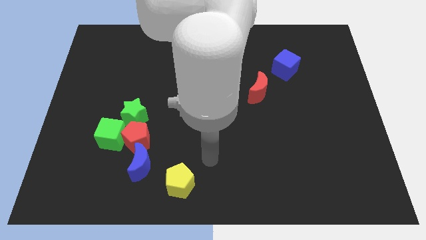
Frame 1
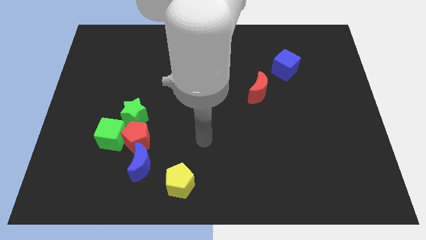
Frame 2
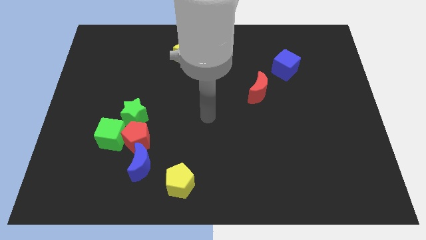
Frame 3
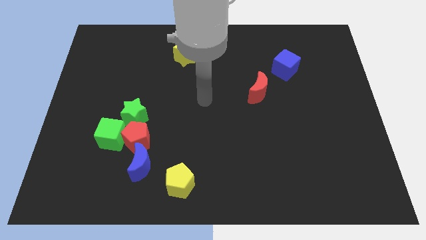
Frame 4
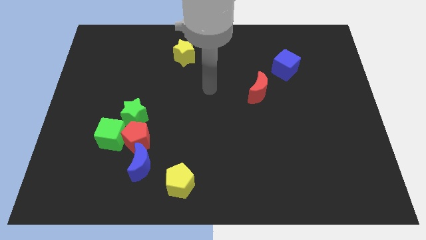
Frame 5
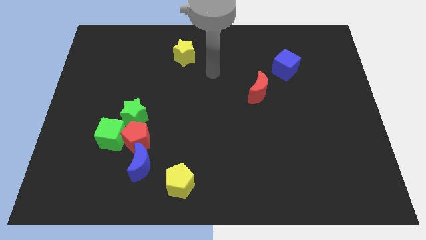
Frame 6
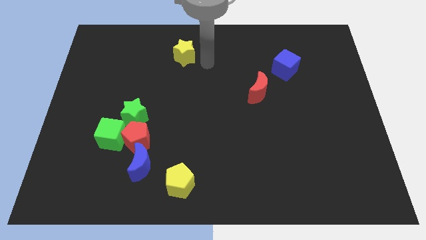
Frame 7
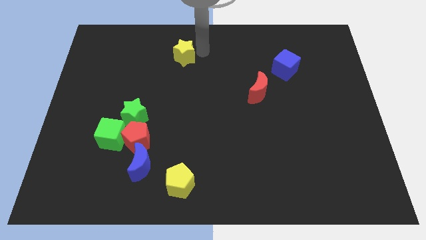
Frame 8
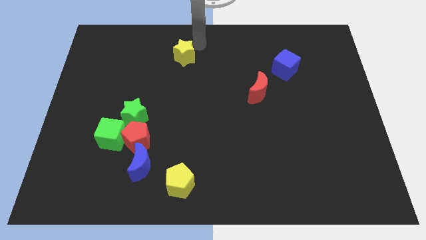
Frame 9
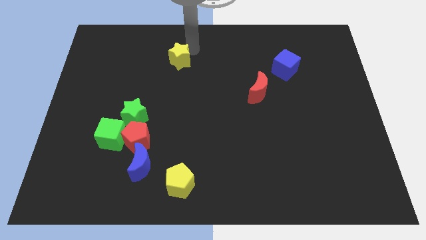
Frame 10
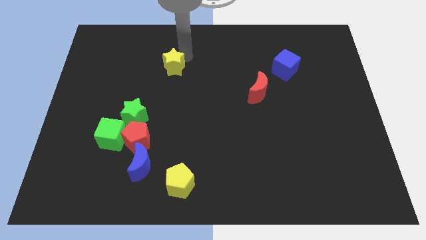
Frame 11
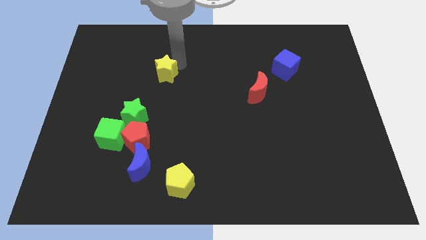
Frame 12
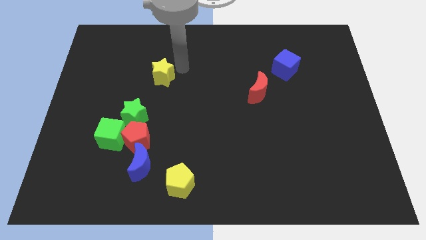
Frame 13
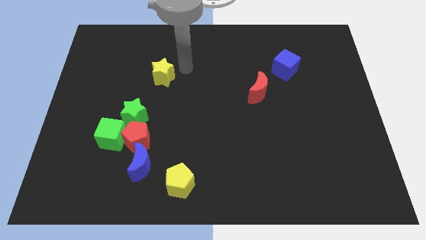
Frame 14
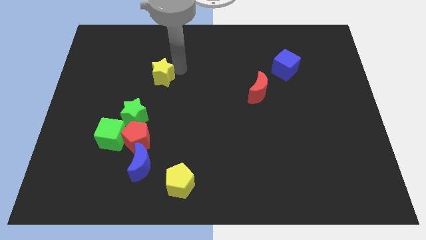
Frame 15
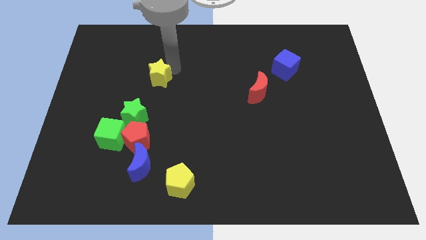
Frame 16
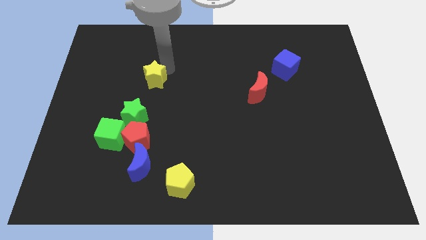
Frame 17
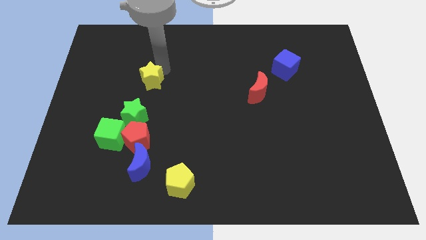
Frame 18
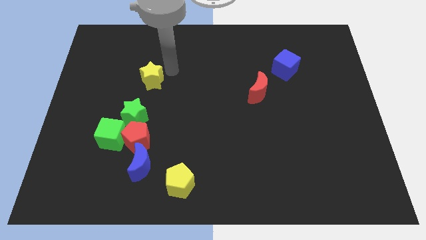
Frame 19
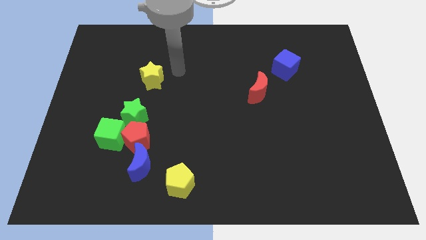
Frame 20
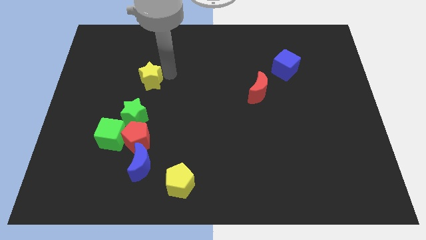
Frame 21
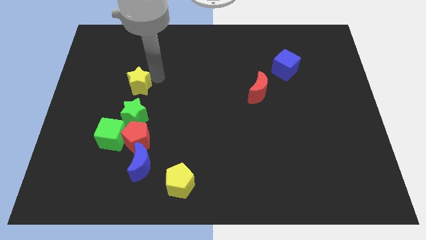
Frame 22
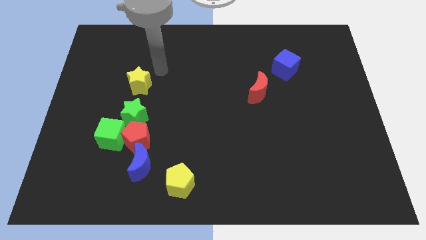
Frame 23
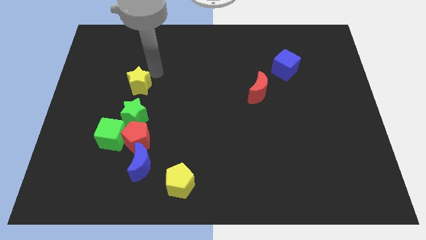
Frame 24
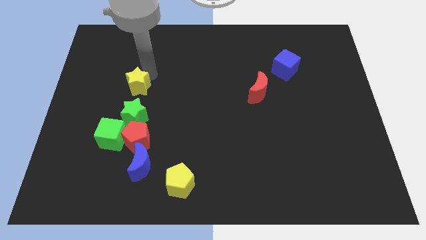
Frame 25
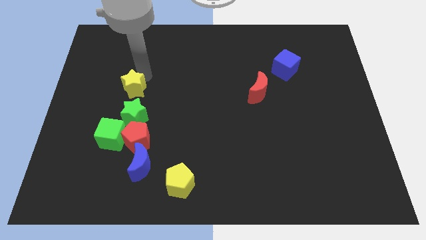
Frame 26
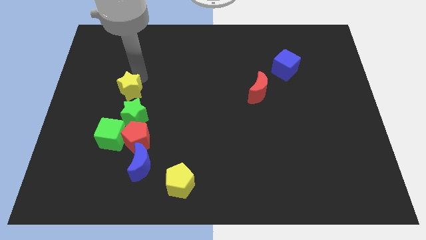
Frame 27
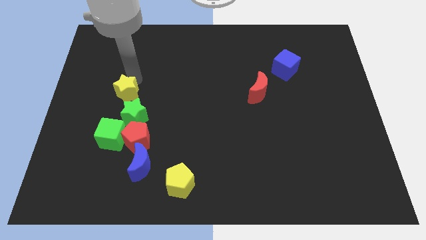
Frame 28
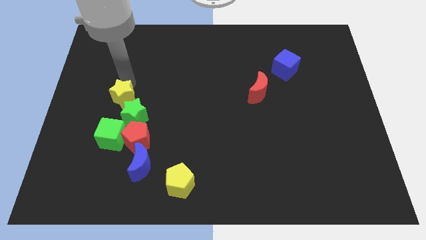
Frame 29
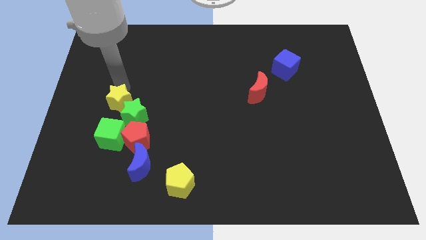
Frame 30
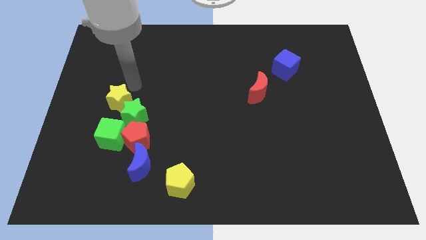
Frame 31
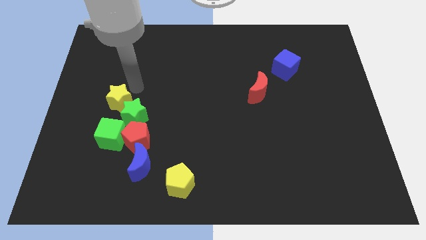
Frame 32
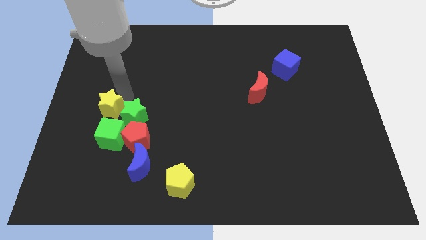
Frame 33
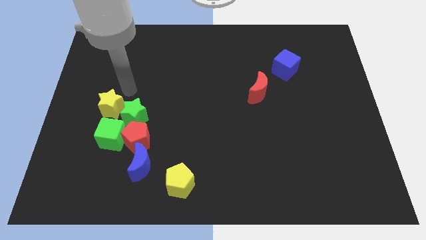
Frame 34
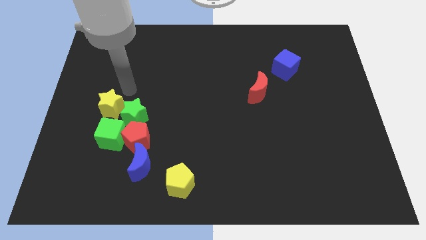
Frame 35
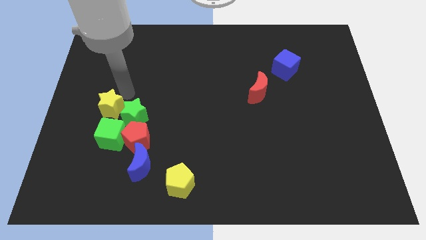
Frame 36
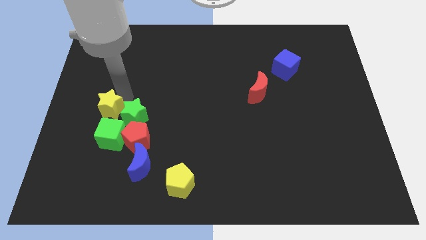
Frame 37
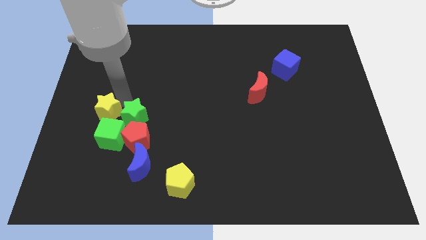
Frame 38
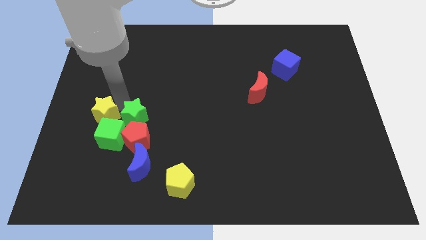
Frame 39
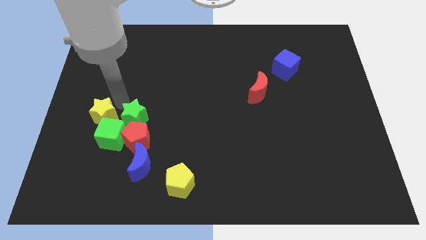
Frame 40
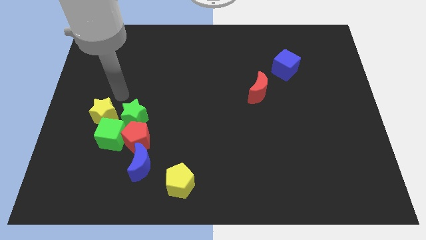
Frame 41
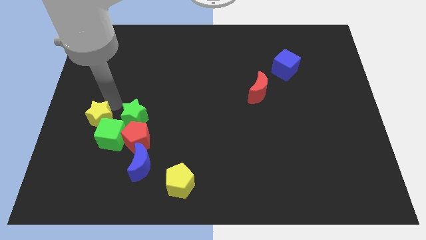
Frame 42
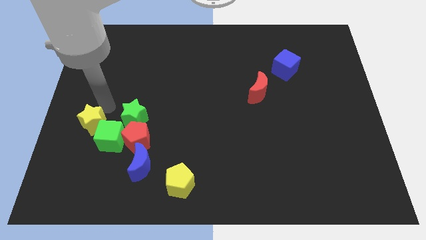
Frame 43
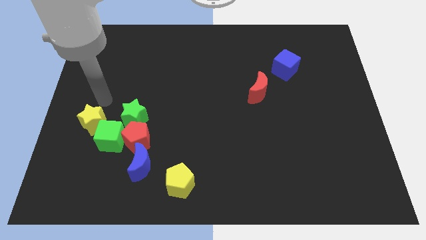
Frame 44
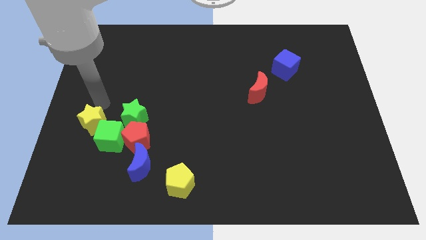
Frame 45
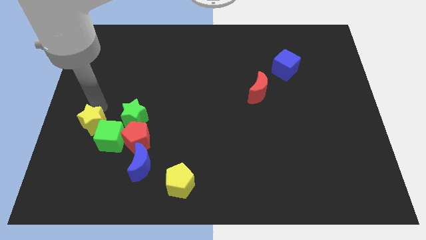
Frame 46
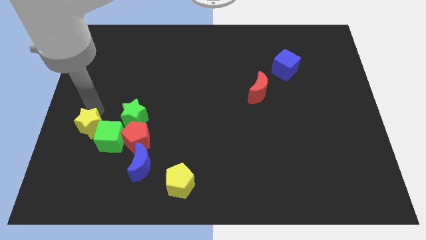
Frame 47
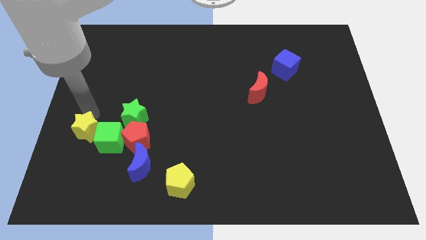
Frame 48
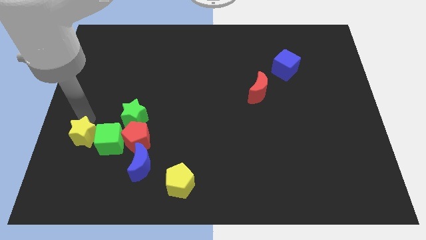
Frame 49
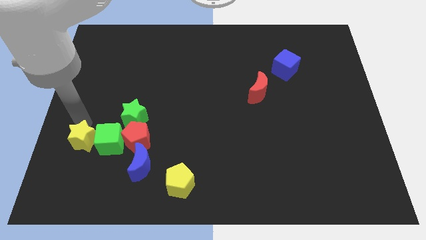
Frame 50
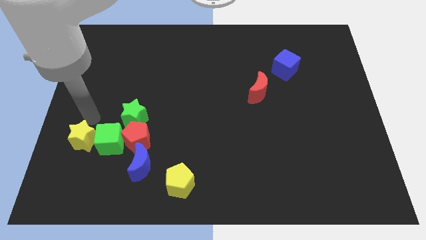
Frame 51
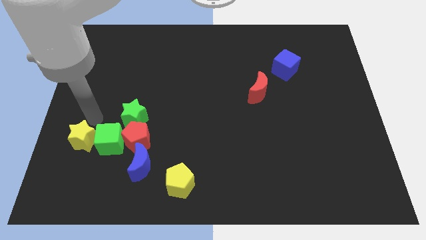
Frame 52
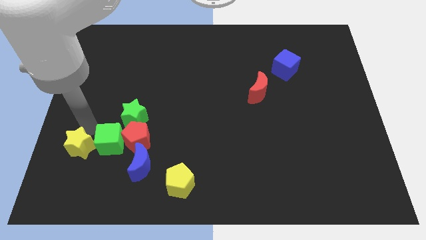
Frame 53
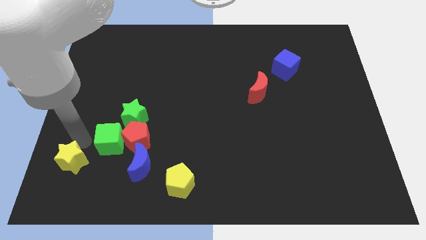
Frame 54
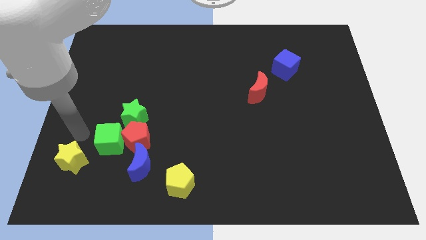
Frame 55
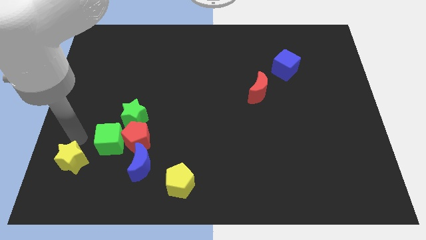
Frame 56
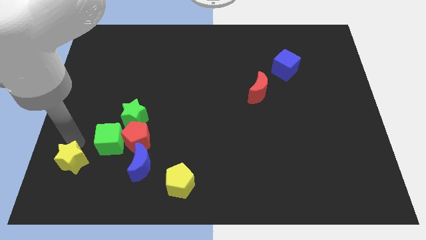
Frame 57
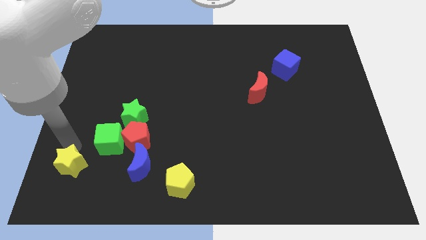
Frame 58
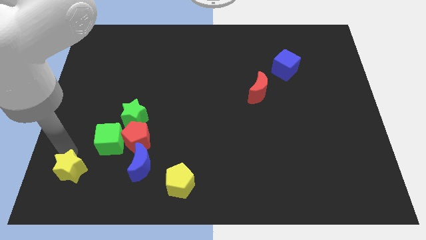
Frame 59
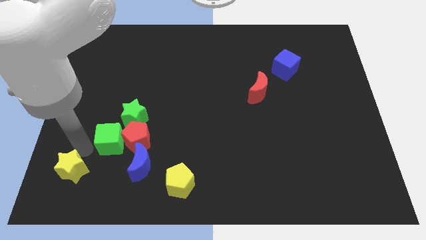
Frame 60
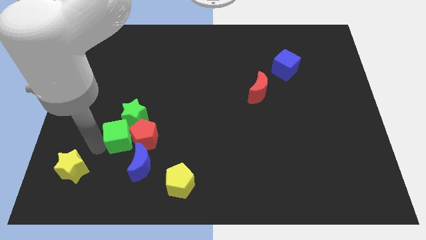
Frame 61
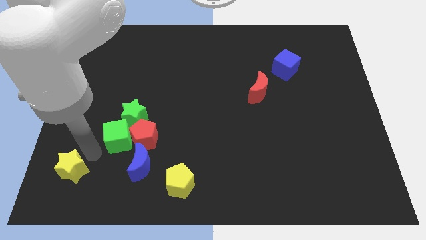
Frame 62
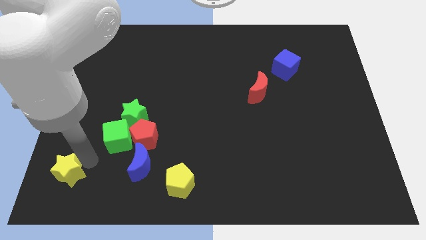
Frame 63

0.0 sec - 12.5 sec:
put the yellow star to the bottom left corner
